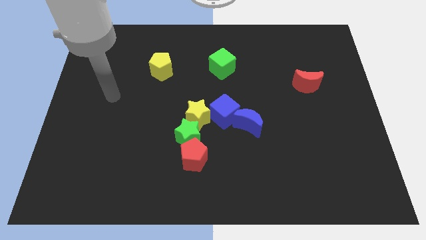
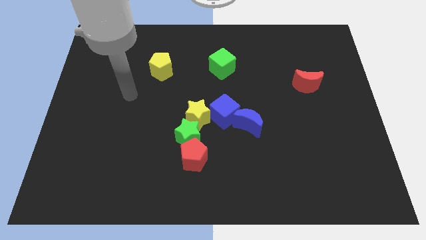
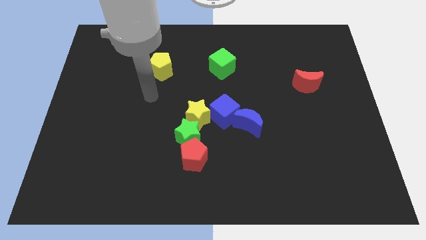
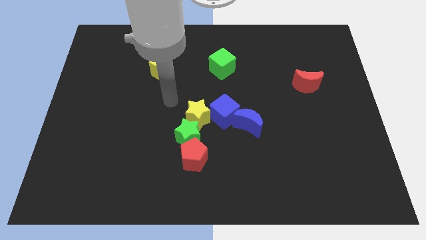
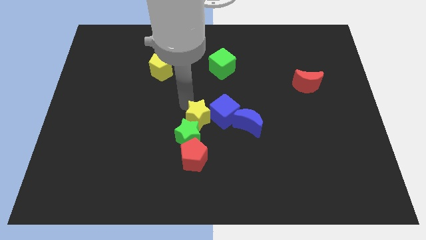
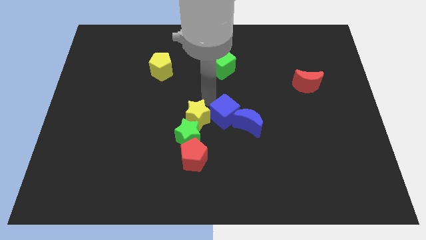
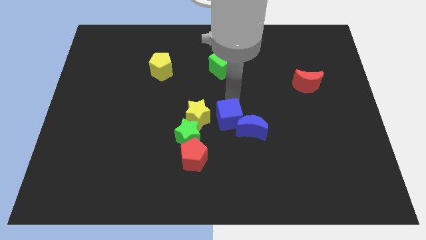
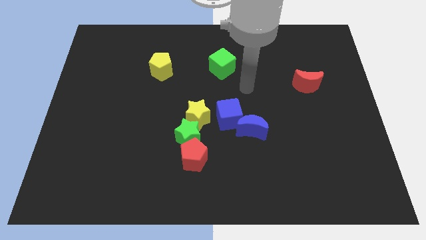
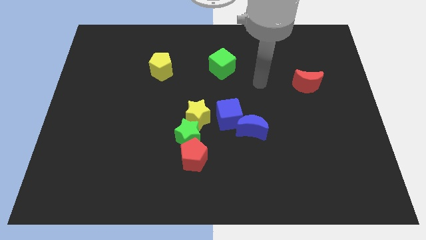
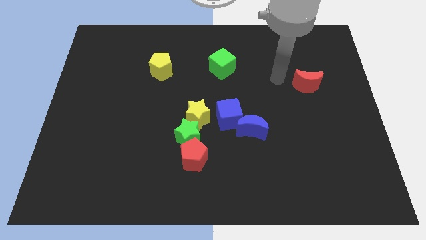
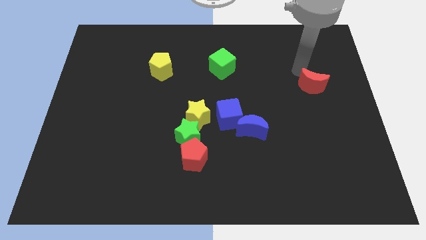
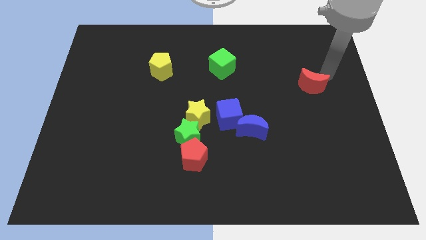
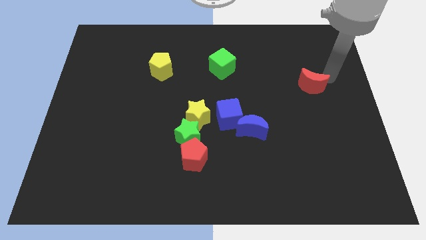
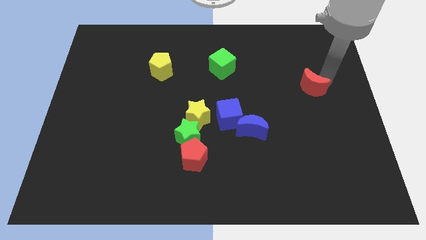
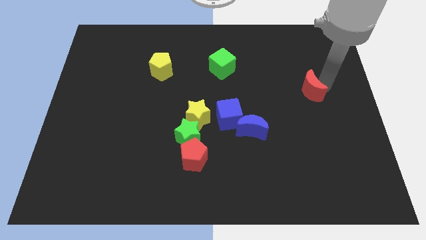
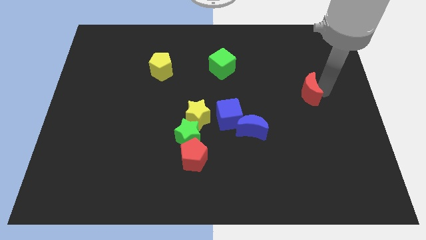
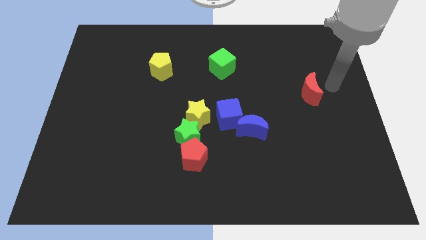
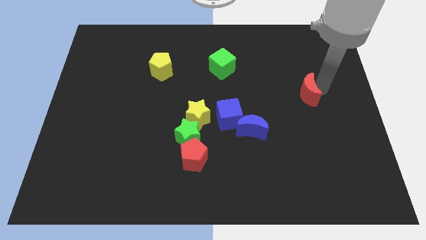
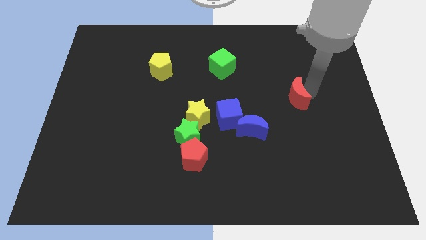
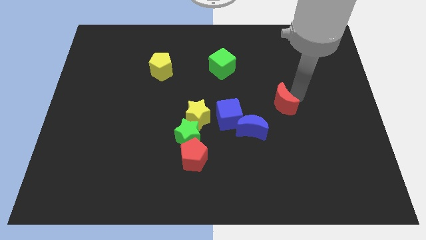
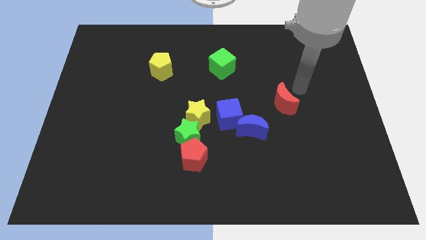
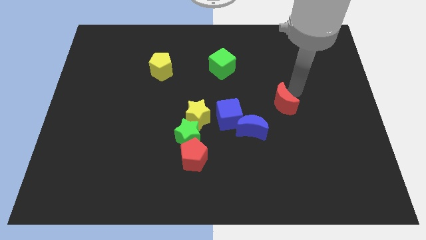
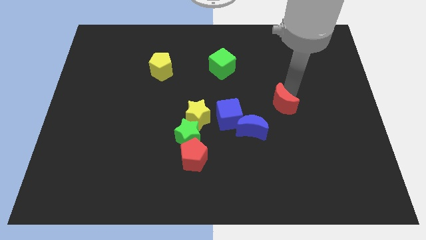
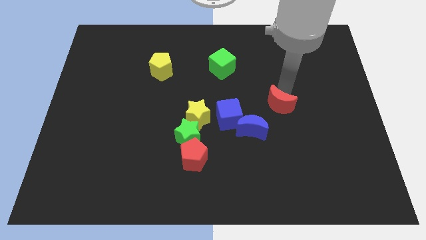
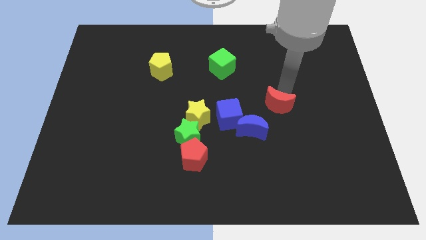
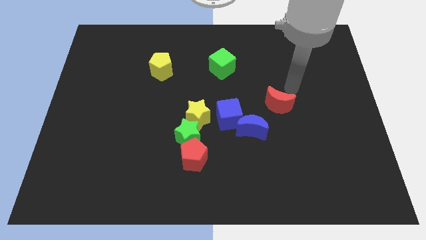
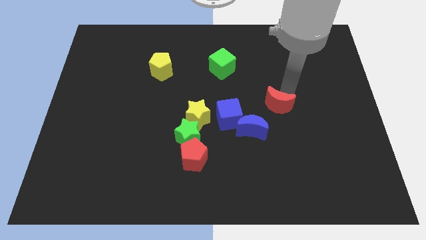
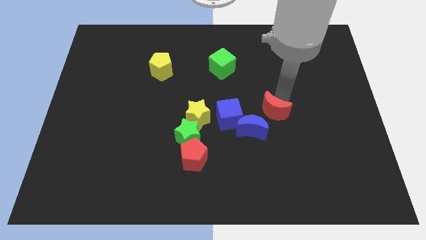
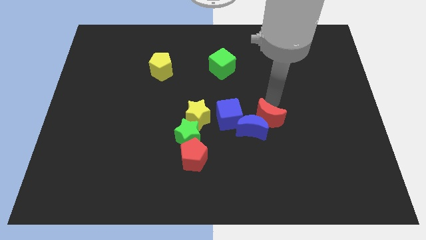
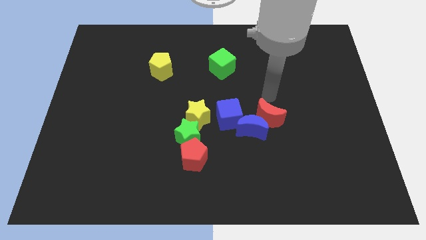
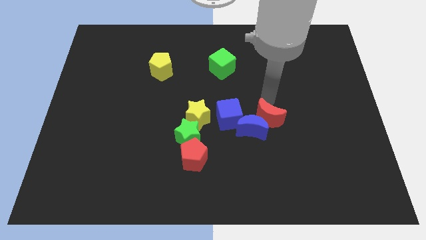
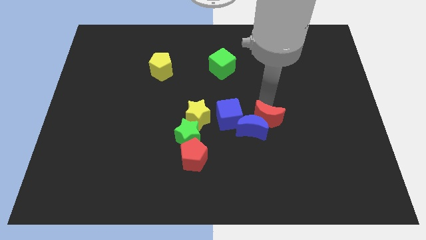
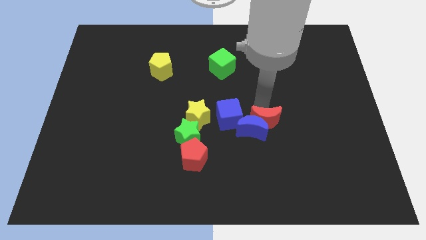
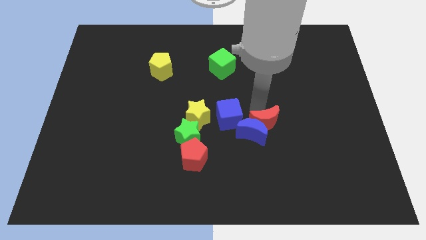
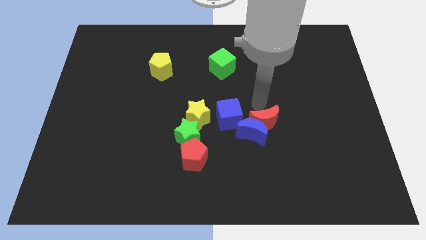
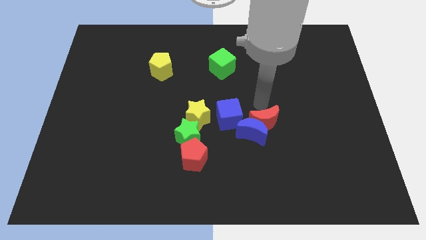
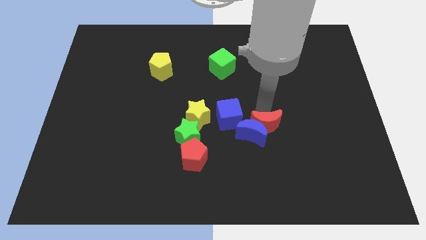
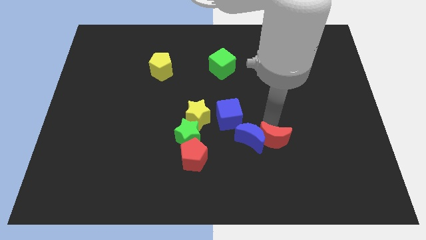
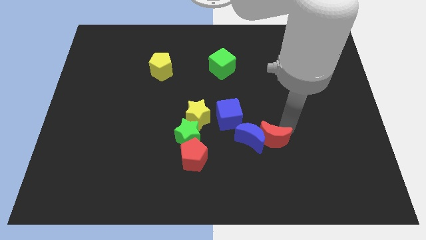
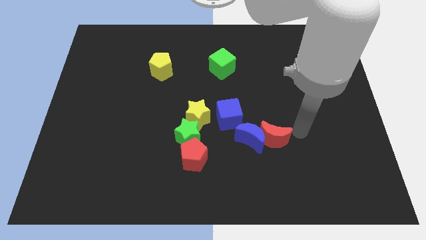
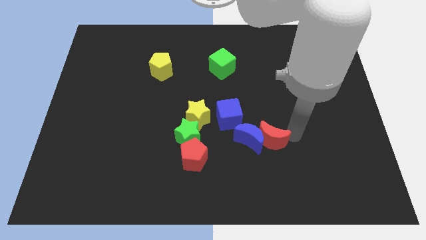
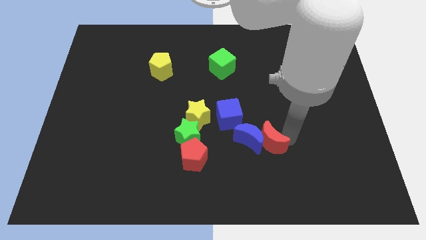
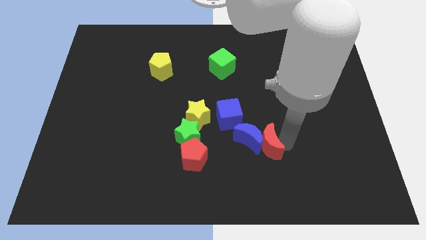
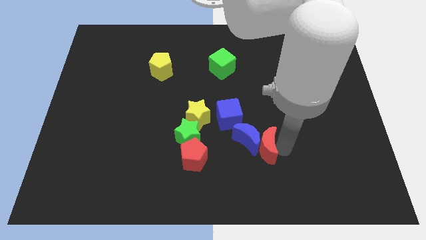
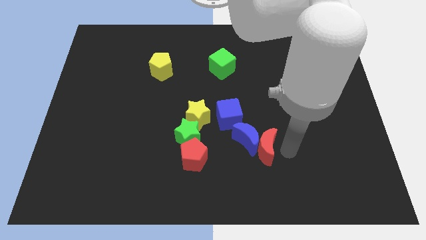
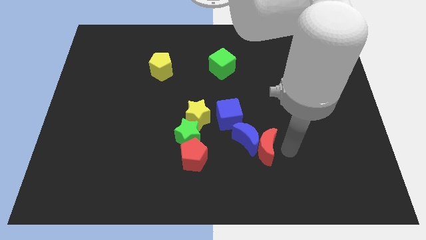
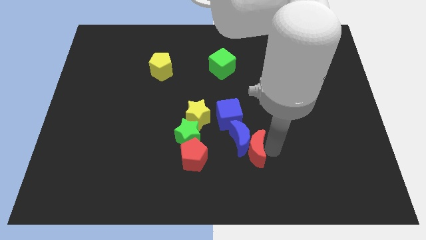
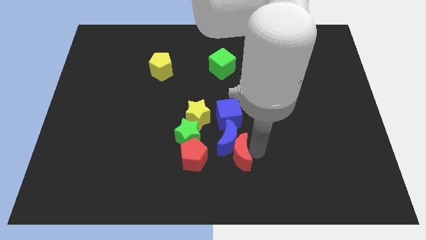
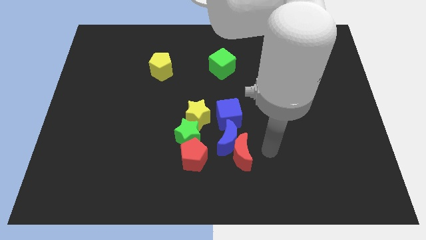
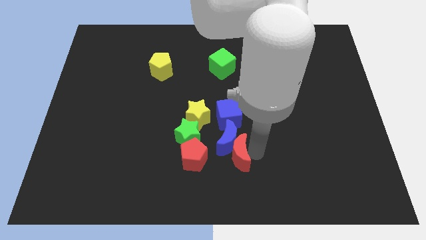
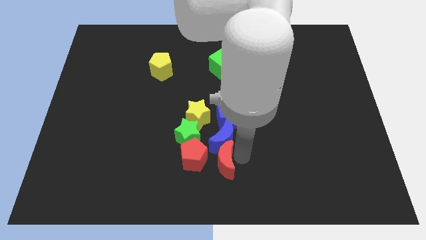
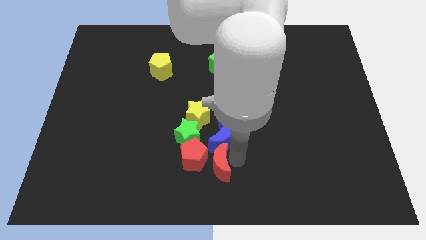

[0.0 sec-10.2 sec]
move the red moon close to the red pentagon

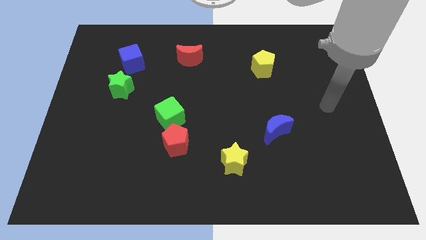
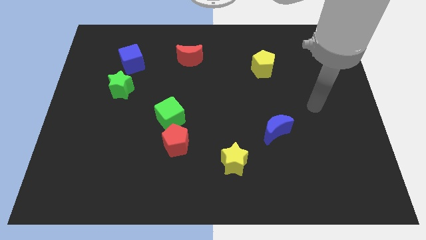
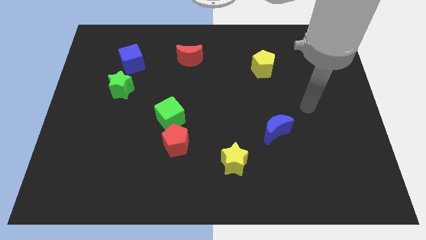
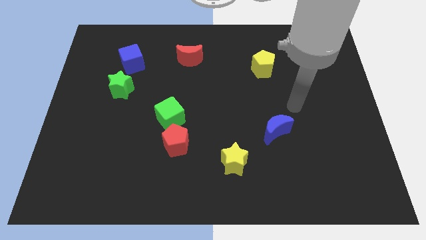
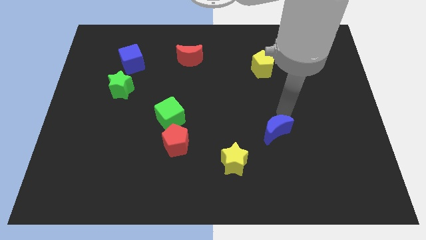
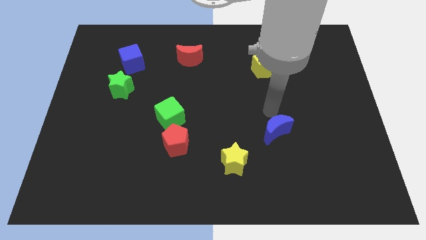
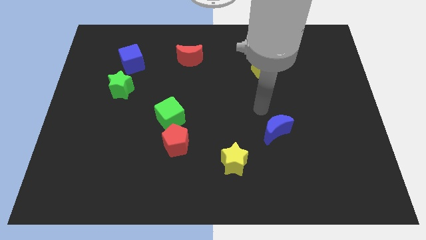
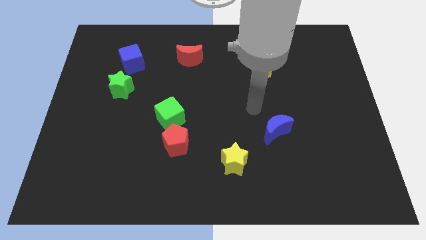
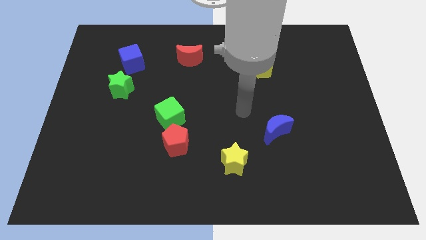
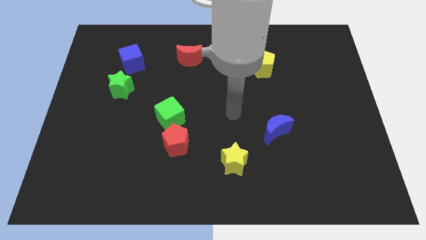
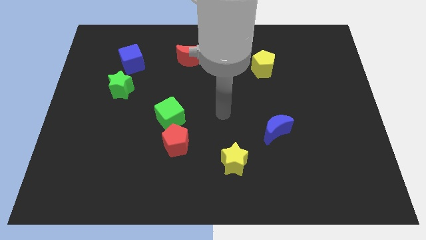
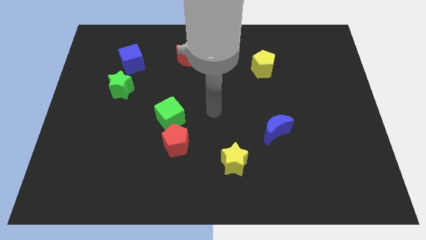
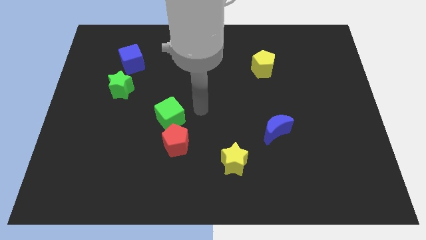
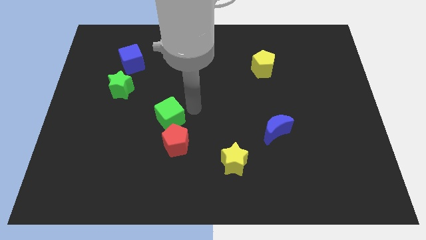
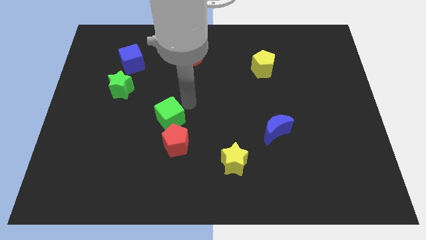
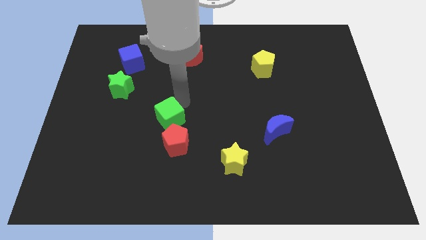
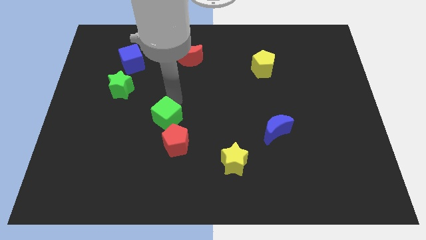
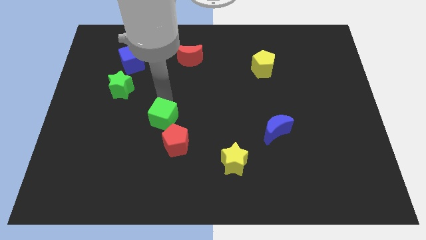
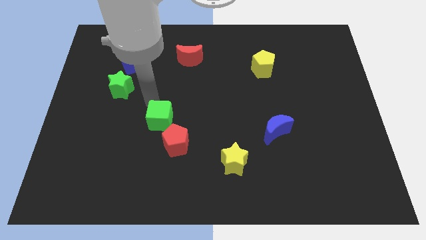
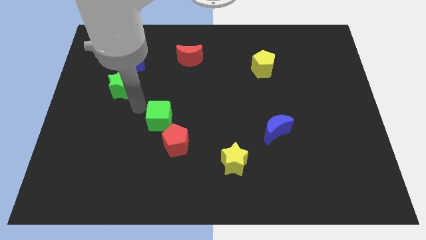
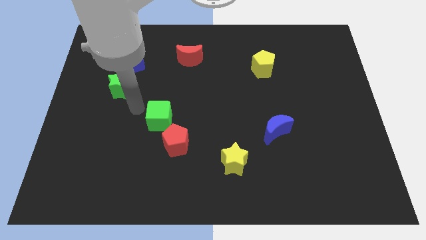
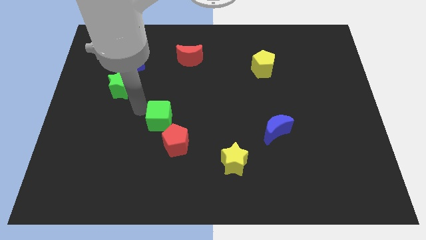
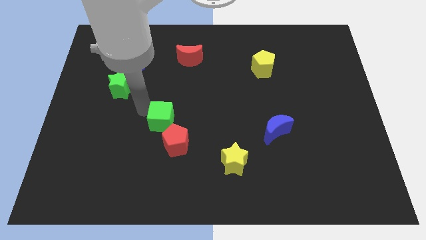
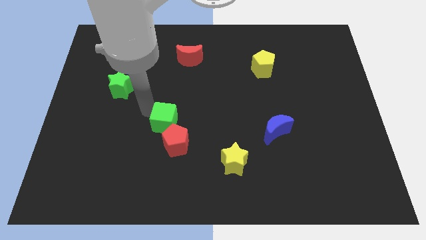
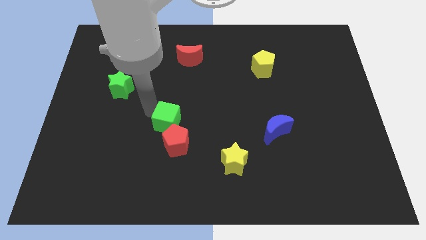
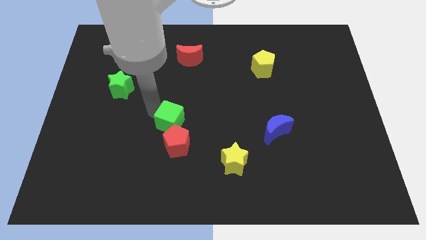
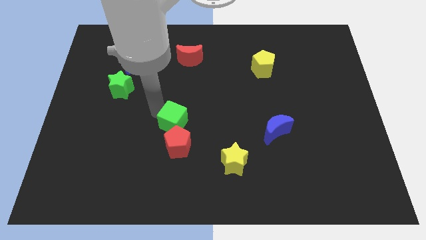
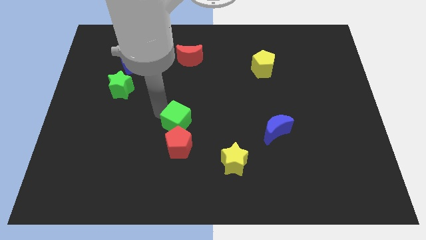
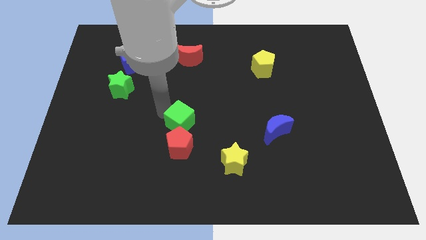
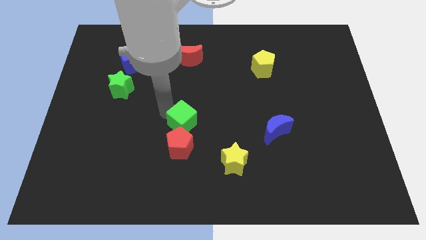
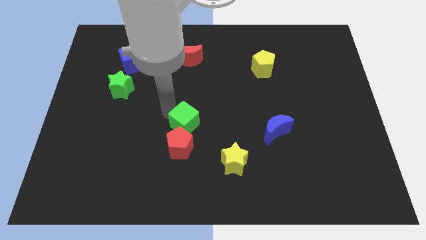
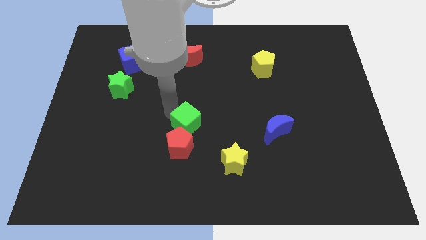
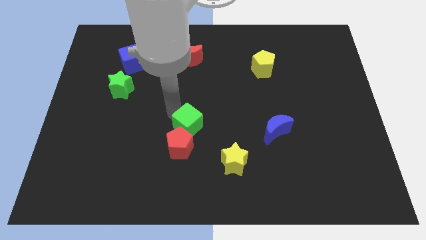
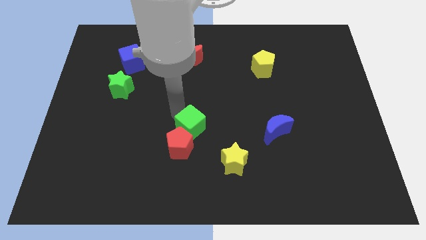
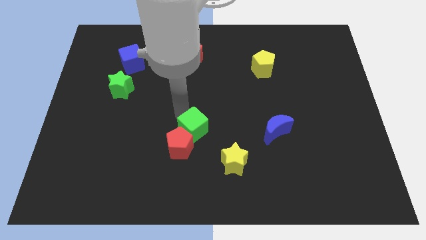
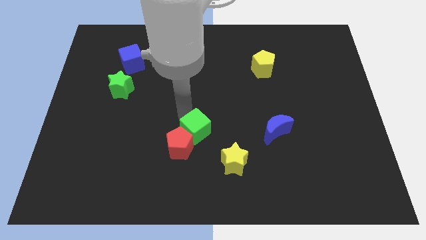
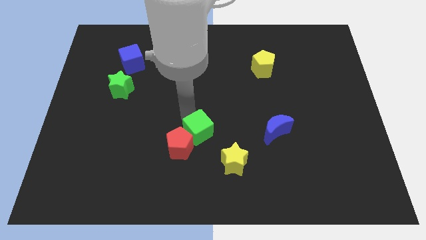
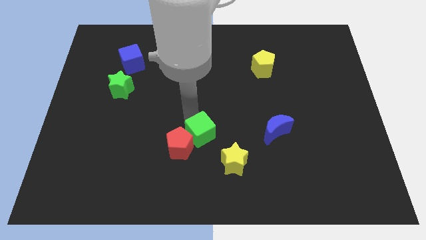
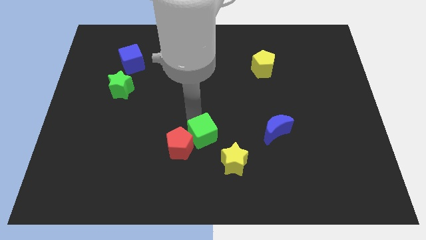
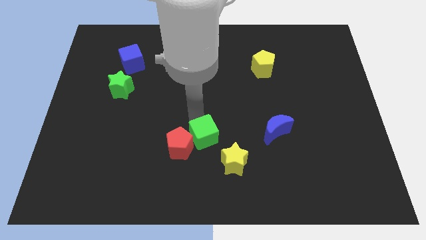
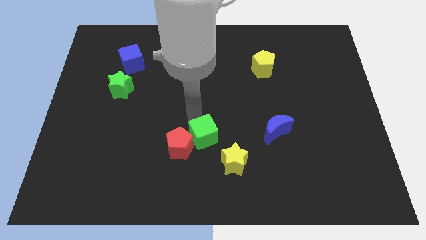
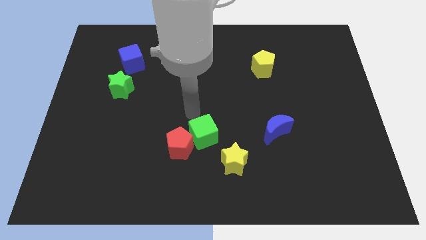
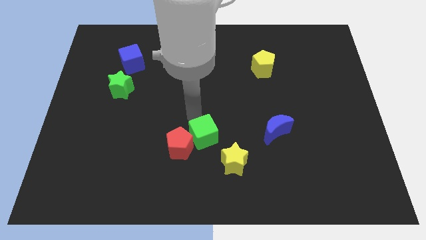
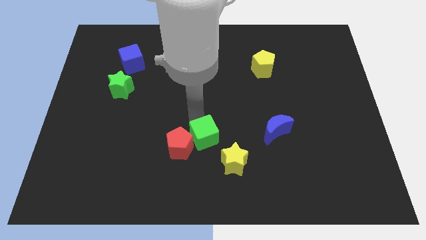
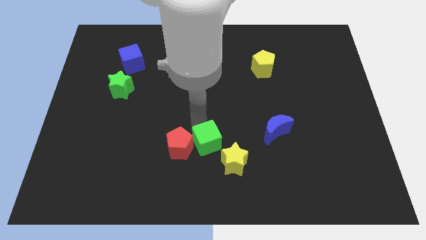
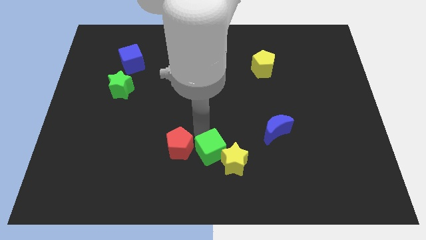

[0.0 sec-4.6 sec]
move the green cube to the yellow star
